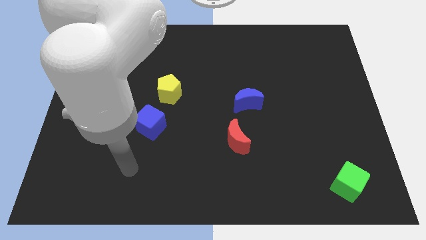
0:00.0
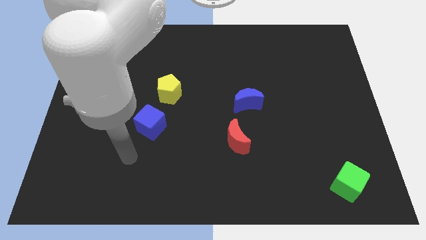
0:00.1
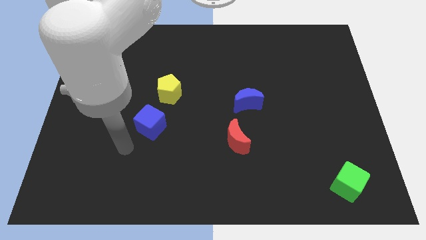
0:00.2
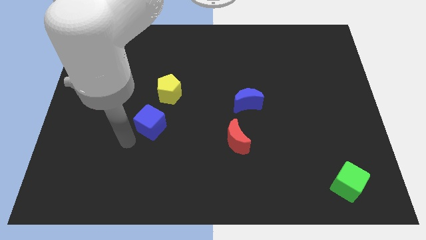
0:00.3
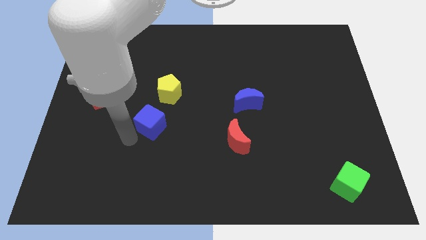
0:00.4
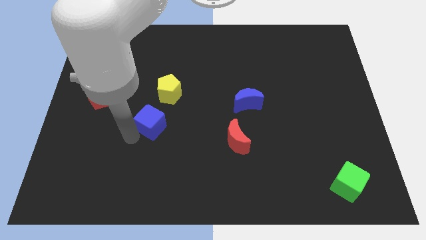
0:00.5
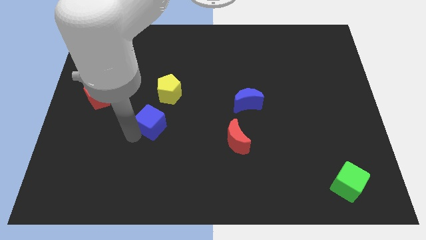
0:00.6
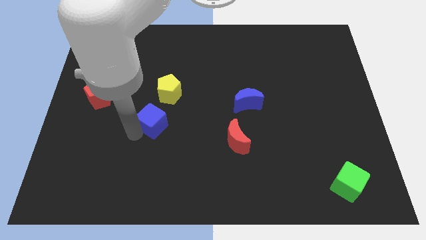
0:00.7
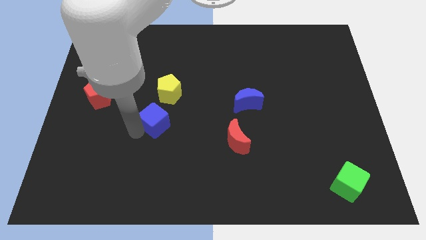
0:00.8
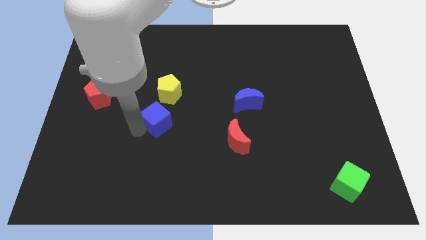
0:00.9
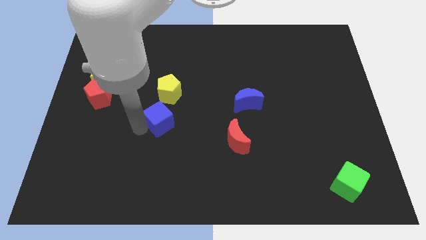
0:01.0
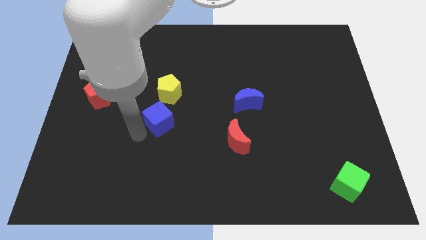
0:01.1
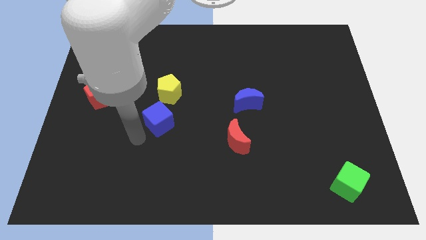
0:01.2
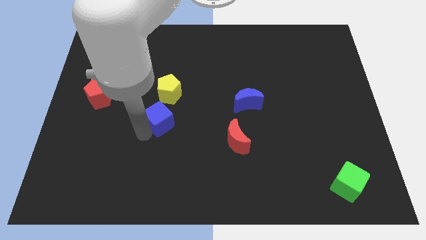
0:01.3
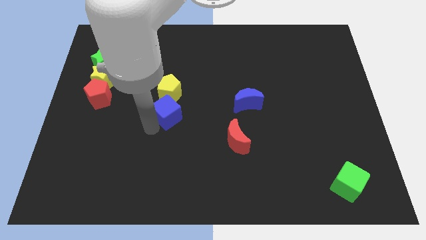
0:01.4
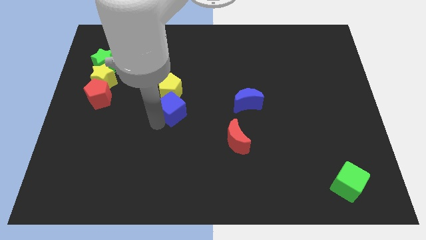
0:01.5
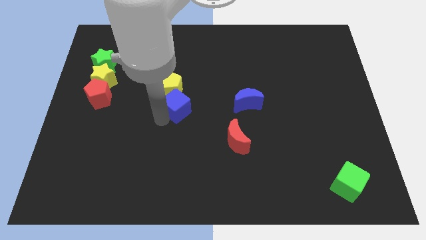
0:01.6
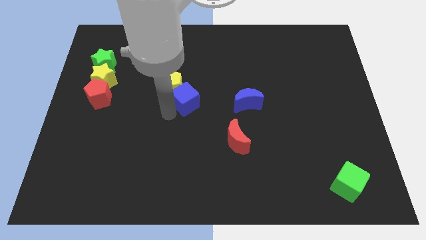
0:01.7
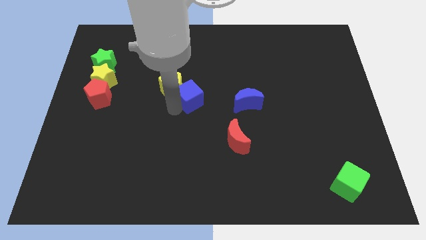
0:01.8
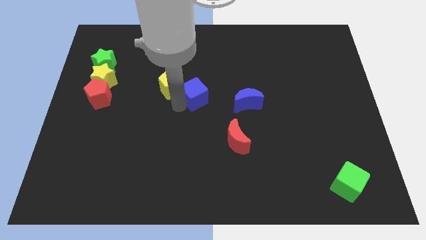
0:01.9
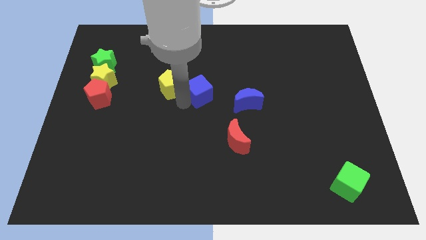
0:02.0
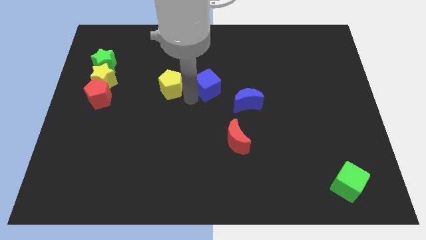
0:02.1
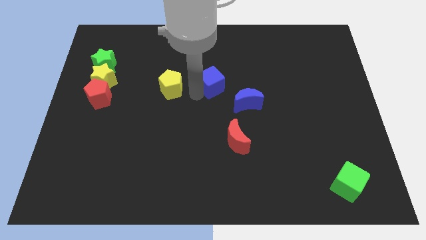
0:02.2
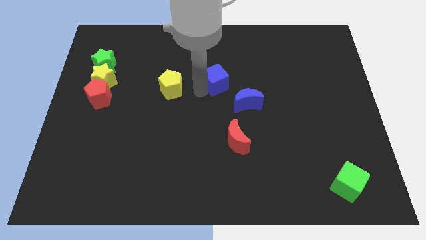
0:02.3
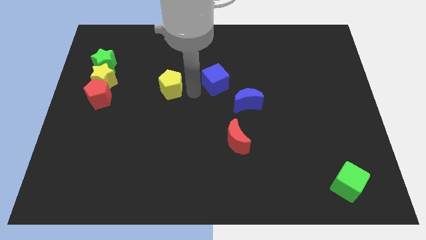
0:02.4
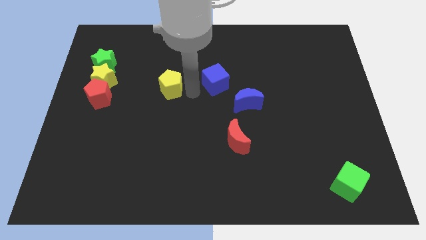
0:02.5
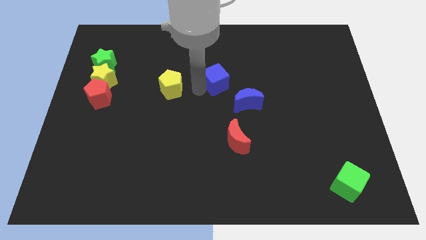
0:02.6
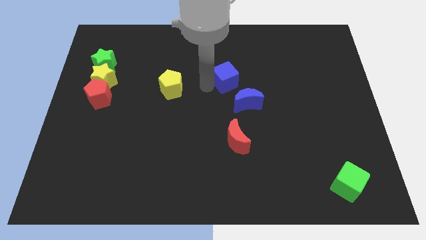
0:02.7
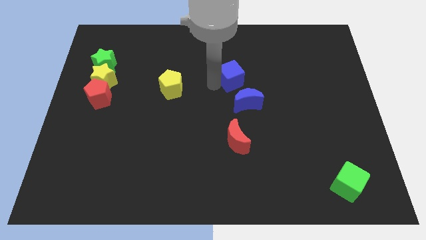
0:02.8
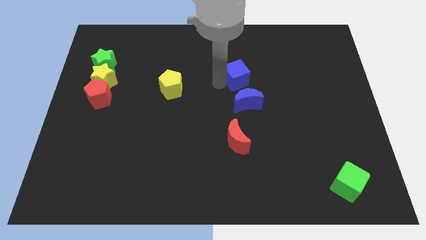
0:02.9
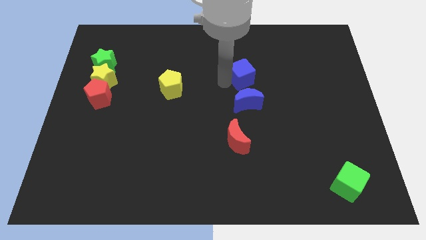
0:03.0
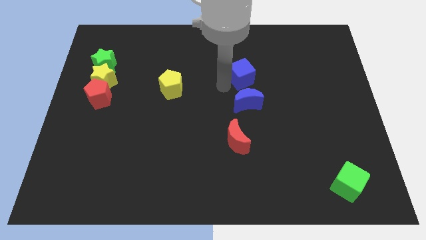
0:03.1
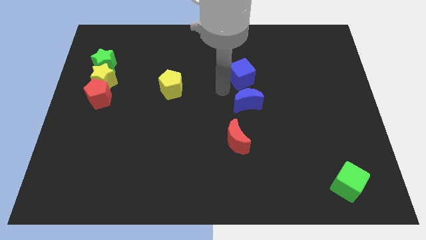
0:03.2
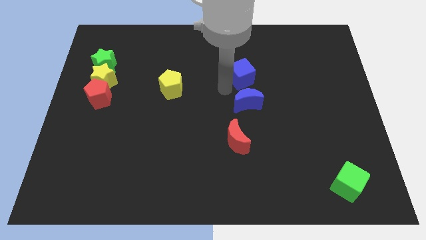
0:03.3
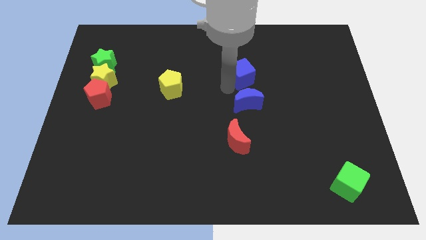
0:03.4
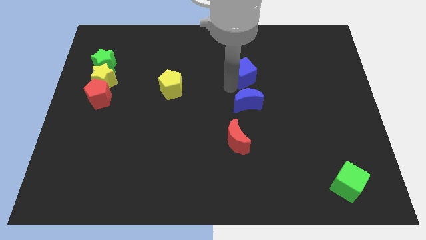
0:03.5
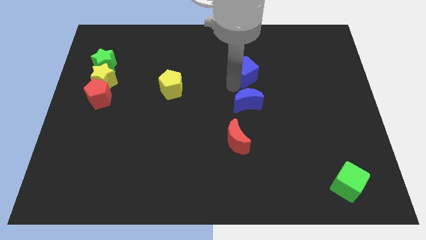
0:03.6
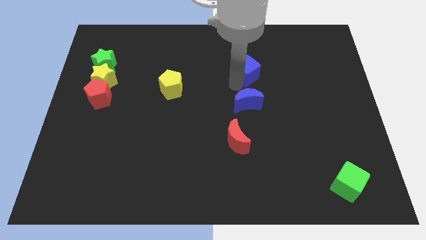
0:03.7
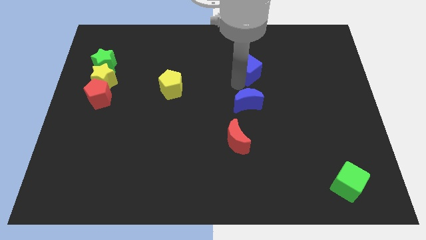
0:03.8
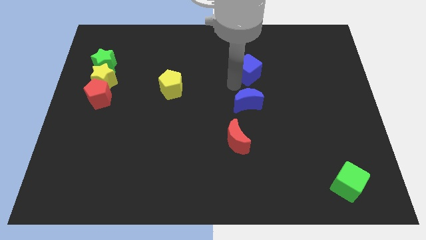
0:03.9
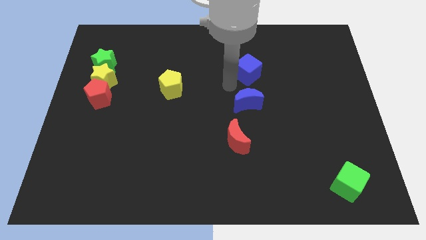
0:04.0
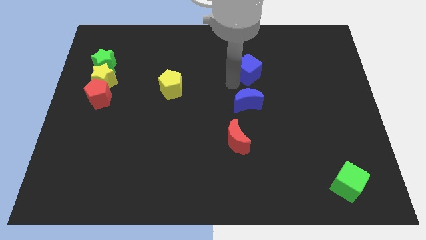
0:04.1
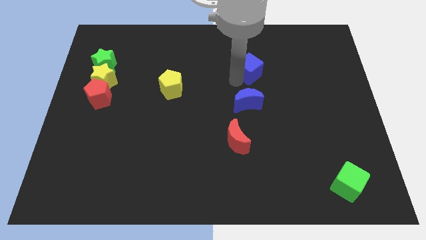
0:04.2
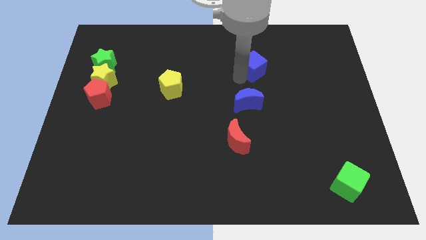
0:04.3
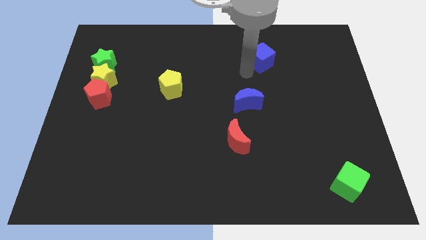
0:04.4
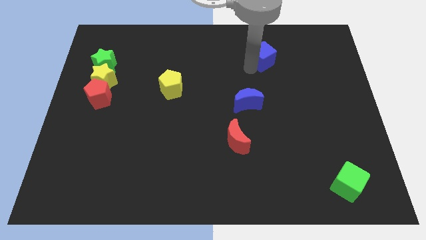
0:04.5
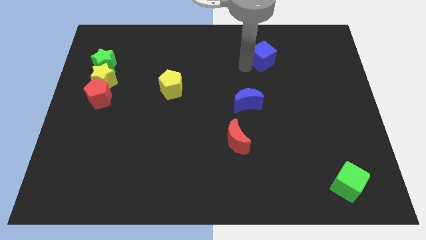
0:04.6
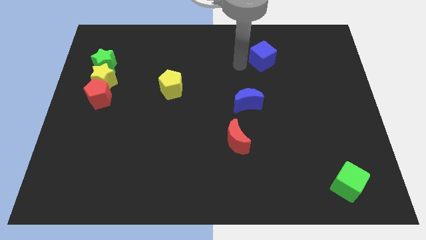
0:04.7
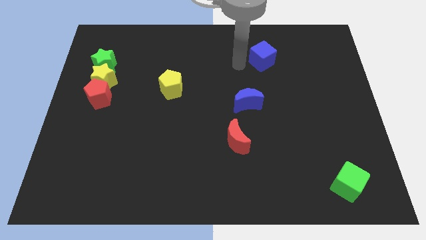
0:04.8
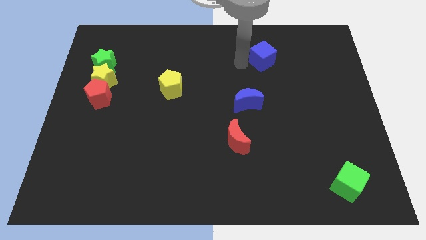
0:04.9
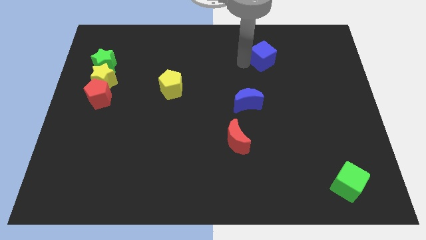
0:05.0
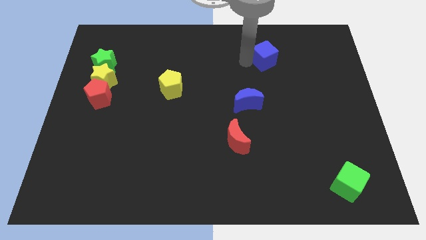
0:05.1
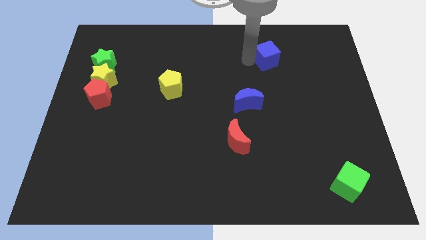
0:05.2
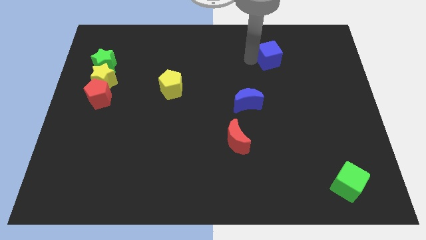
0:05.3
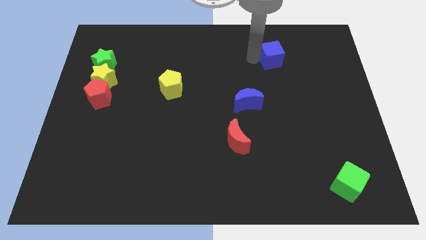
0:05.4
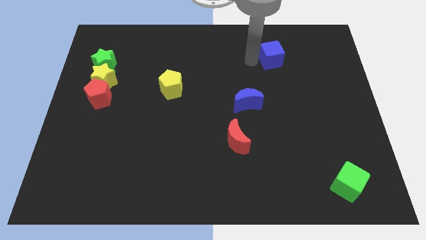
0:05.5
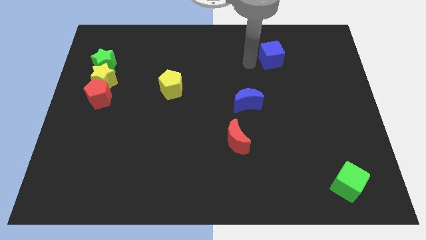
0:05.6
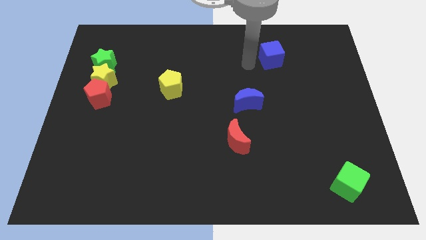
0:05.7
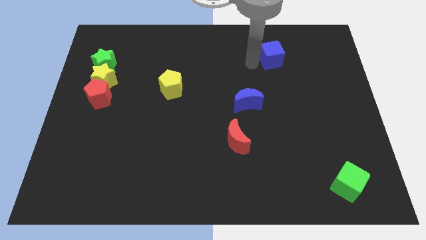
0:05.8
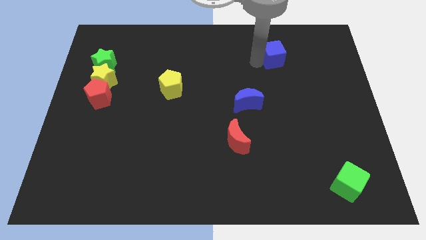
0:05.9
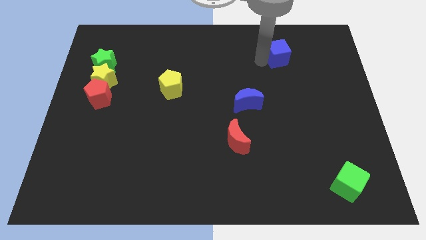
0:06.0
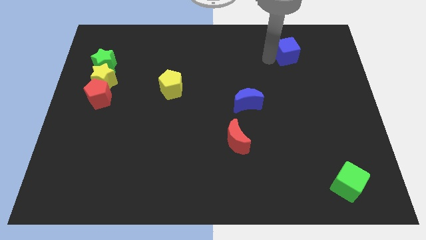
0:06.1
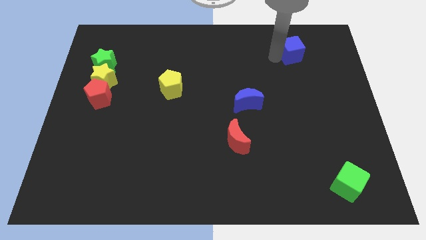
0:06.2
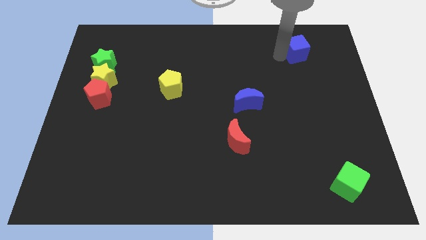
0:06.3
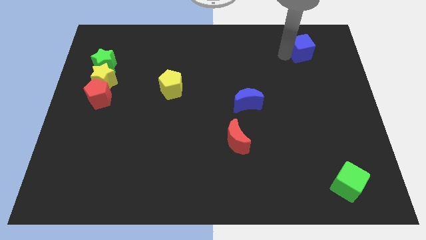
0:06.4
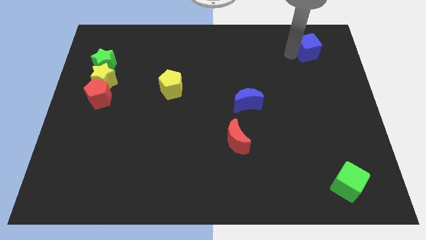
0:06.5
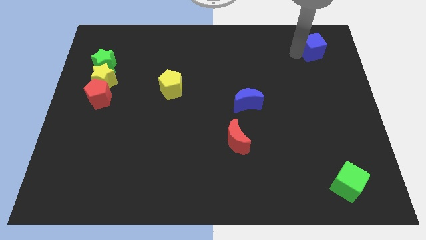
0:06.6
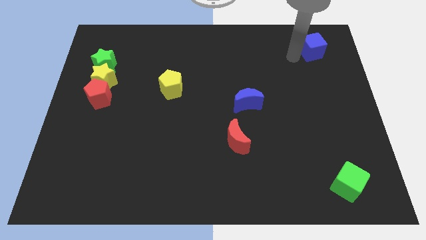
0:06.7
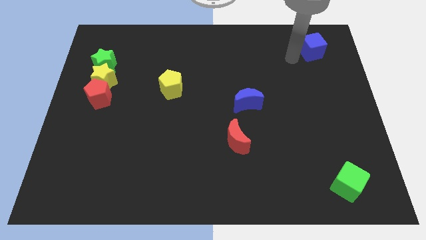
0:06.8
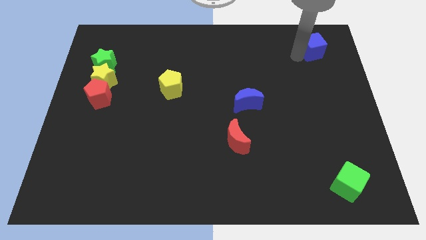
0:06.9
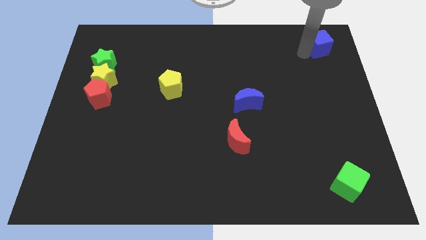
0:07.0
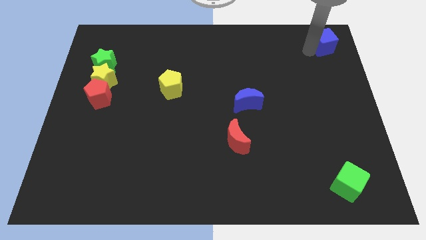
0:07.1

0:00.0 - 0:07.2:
slide the blue cube to the upper right corner
